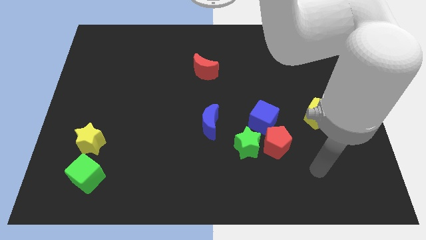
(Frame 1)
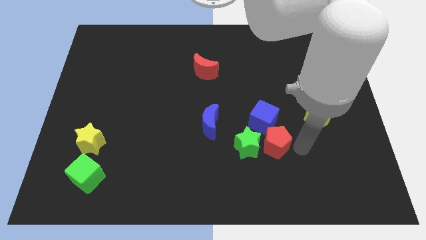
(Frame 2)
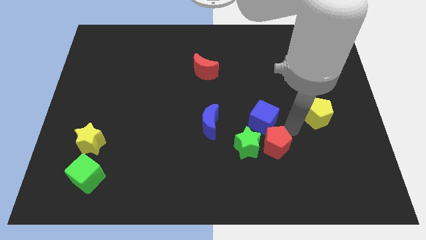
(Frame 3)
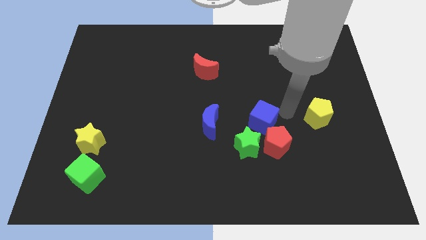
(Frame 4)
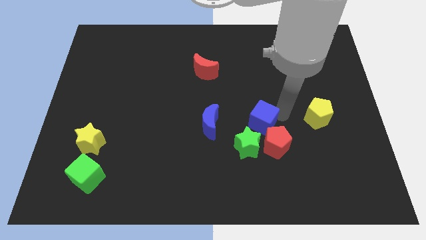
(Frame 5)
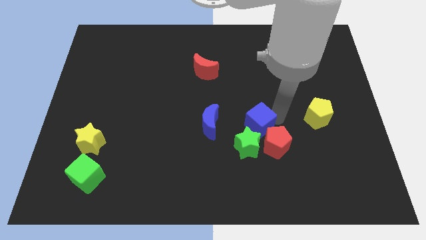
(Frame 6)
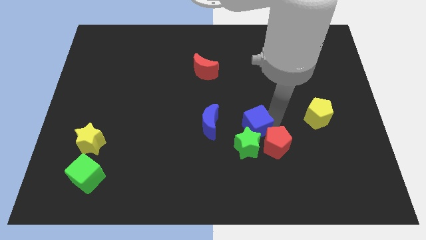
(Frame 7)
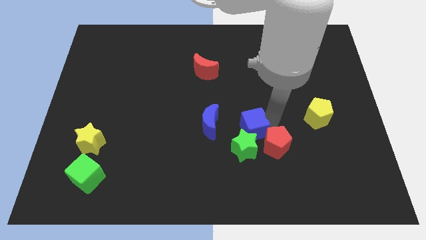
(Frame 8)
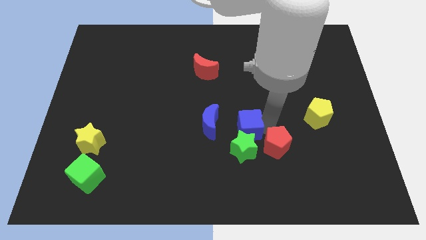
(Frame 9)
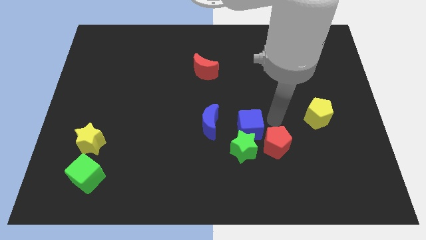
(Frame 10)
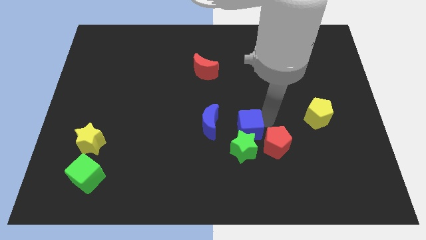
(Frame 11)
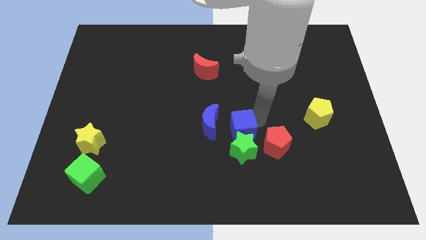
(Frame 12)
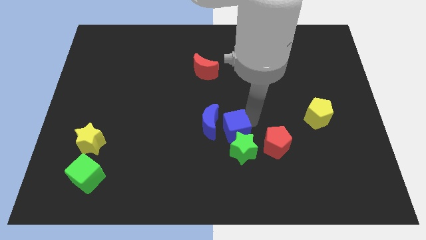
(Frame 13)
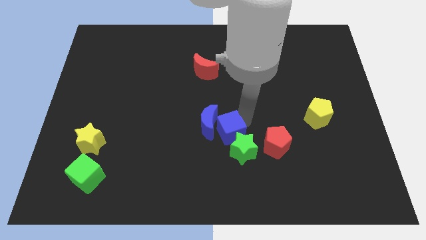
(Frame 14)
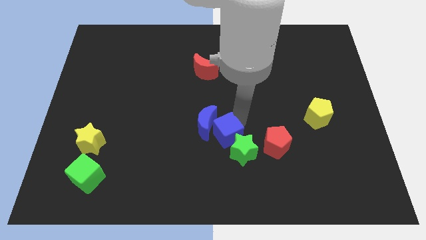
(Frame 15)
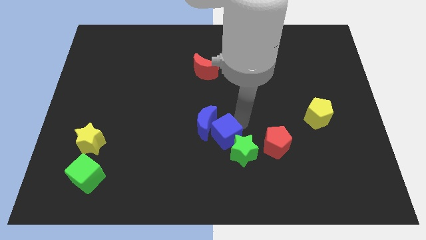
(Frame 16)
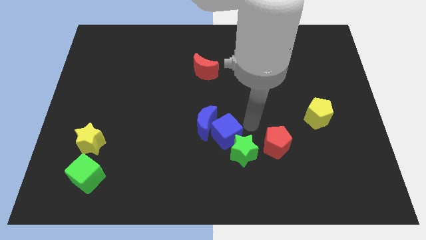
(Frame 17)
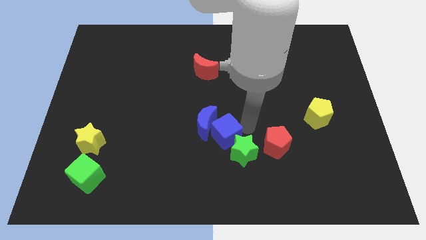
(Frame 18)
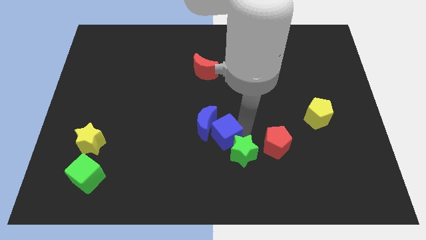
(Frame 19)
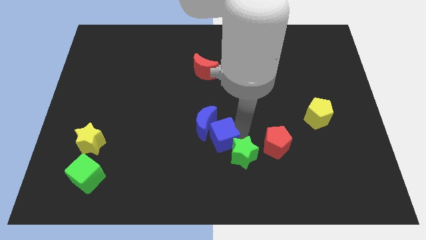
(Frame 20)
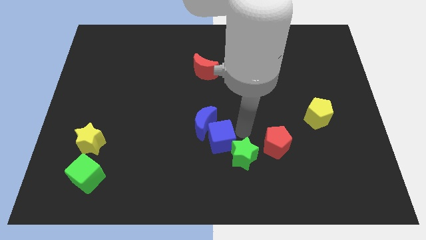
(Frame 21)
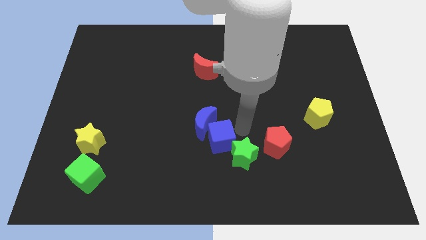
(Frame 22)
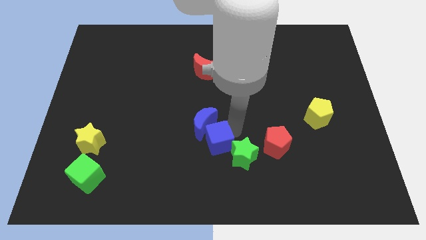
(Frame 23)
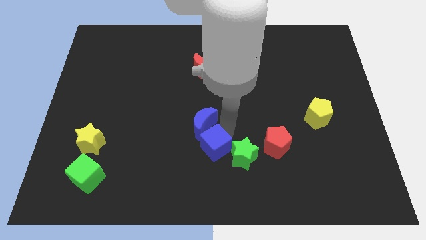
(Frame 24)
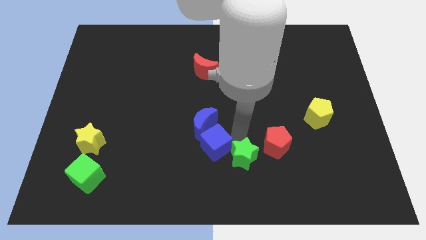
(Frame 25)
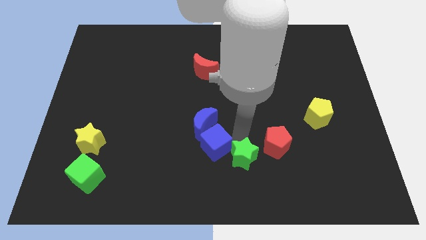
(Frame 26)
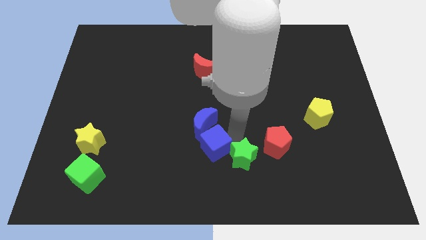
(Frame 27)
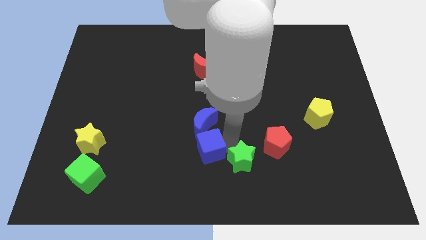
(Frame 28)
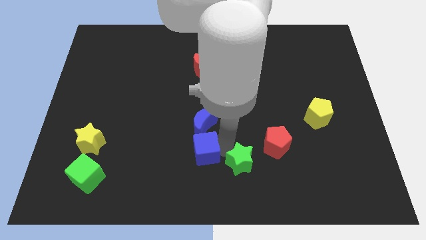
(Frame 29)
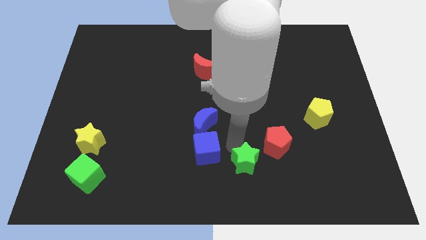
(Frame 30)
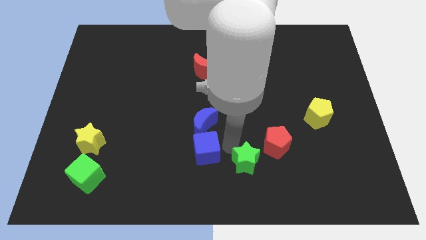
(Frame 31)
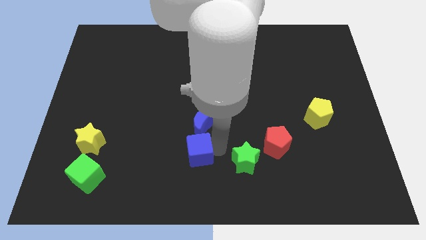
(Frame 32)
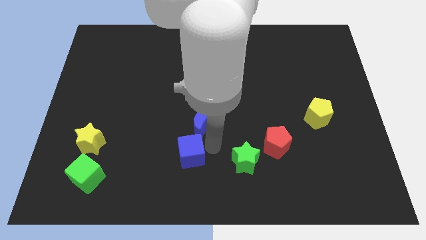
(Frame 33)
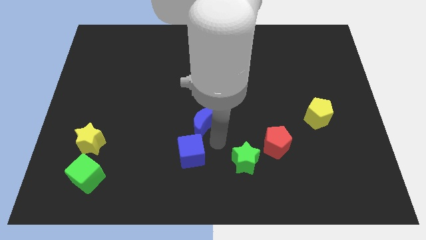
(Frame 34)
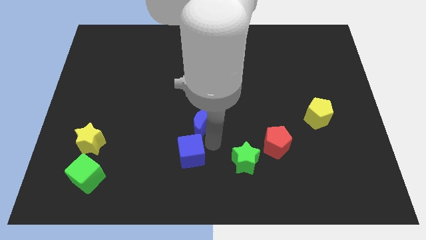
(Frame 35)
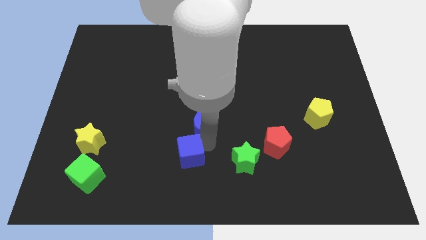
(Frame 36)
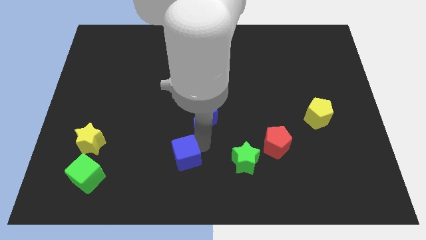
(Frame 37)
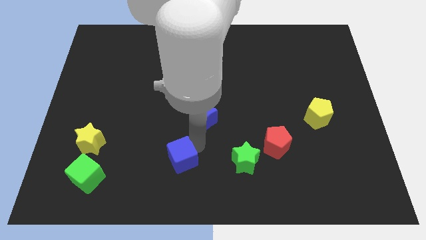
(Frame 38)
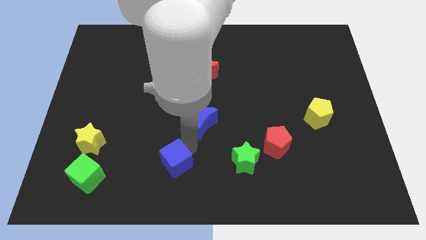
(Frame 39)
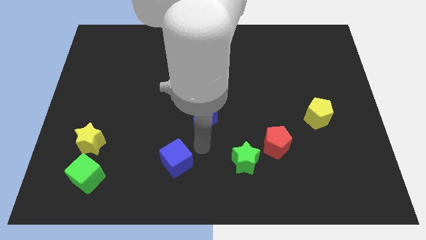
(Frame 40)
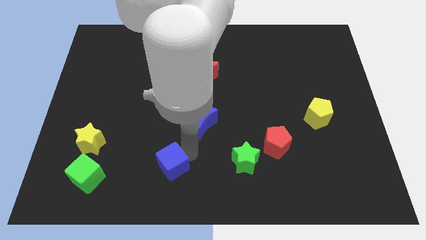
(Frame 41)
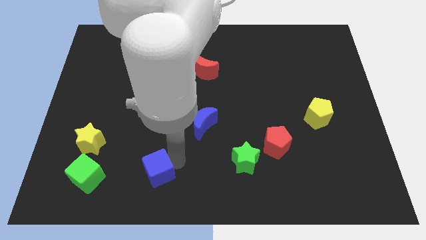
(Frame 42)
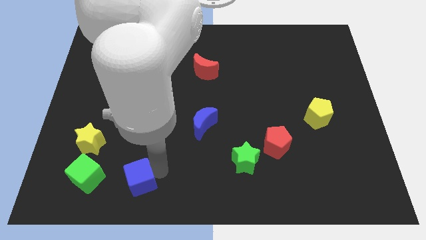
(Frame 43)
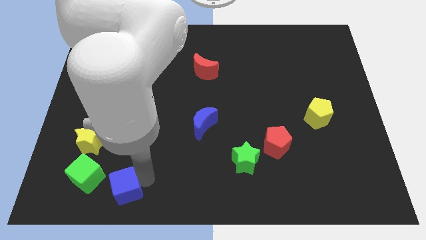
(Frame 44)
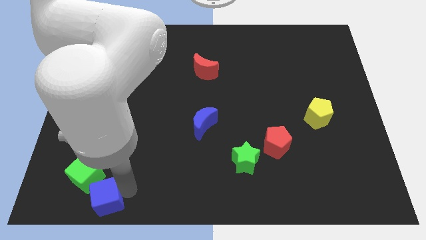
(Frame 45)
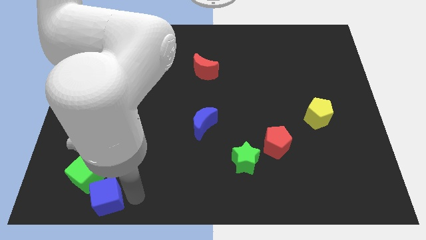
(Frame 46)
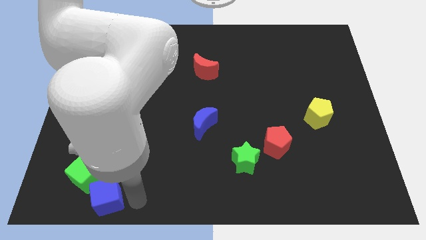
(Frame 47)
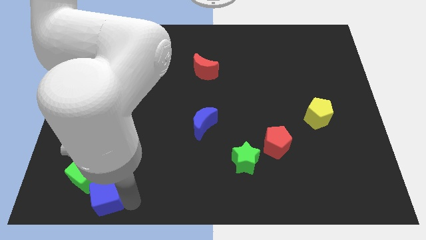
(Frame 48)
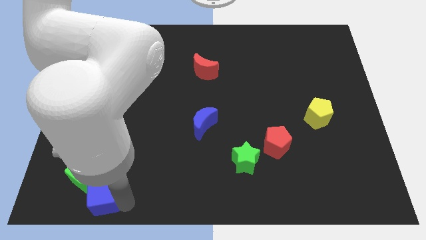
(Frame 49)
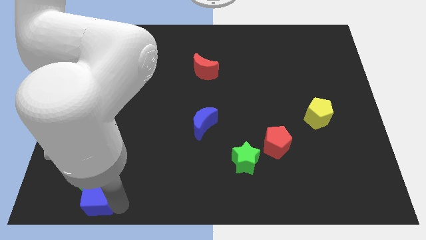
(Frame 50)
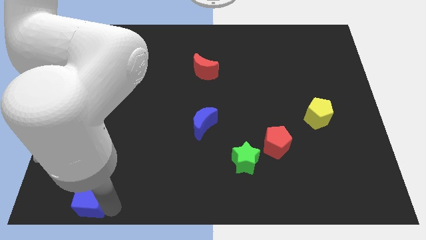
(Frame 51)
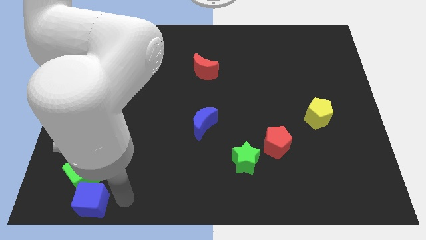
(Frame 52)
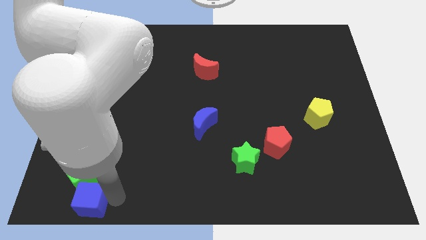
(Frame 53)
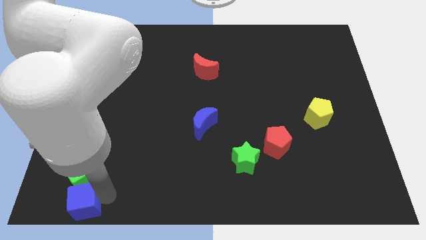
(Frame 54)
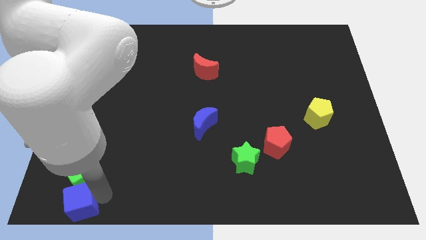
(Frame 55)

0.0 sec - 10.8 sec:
move the blue cube to the bottom left corner

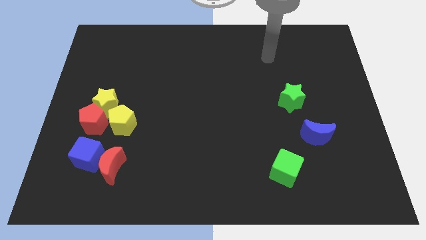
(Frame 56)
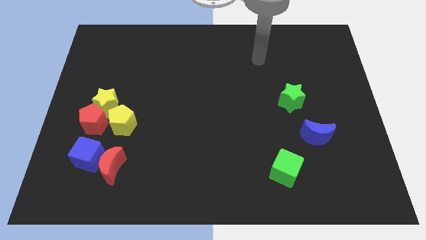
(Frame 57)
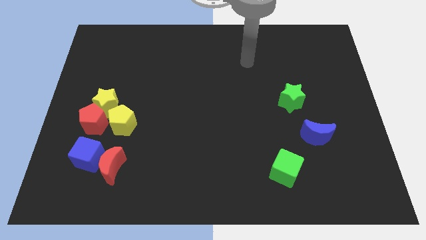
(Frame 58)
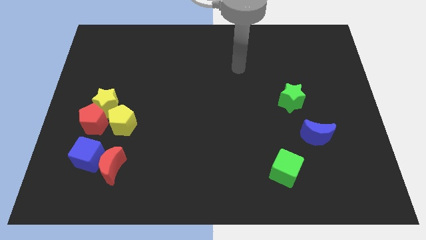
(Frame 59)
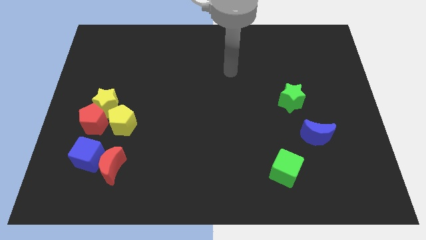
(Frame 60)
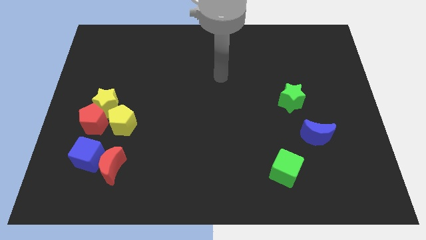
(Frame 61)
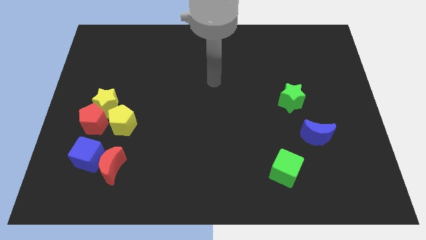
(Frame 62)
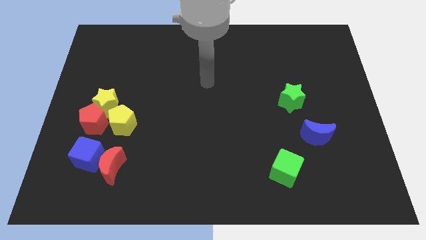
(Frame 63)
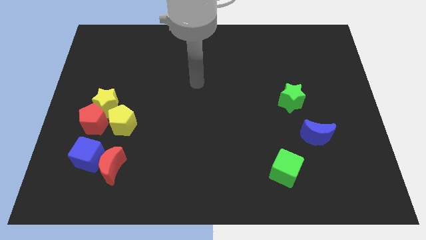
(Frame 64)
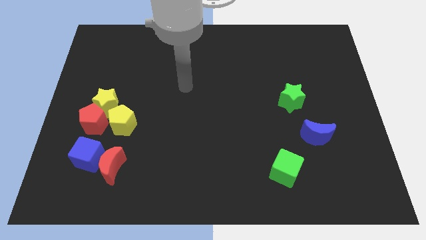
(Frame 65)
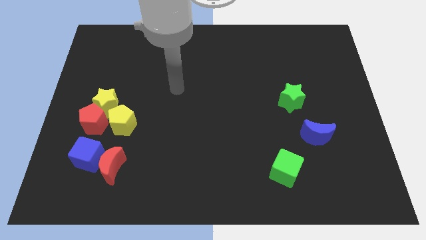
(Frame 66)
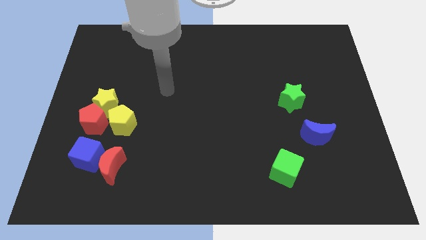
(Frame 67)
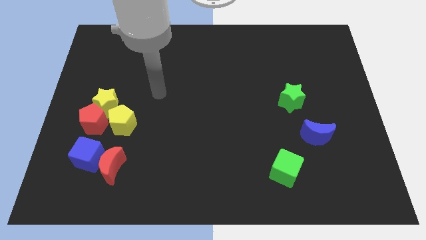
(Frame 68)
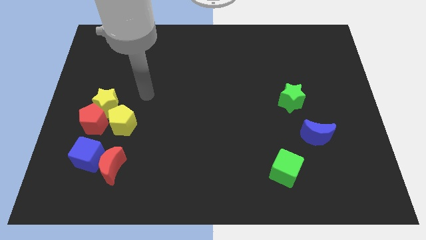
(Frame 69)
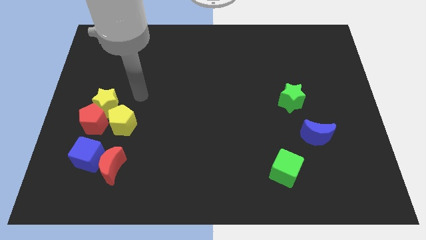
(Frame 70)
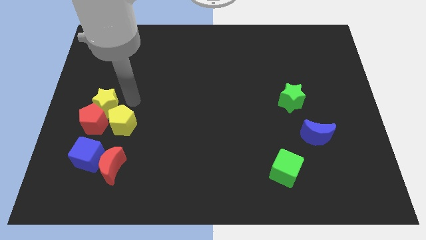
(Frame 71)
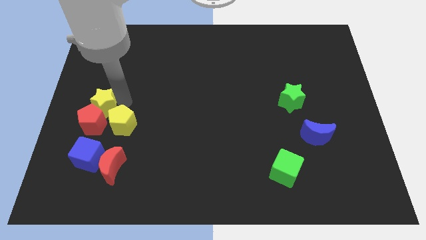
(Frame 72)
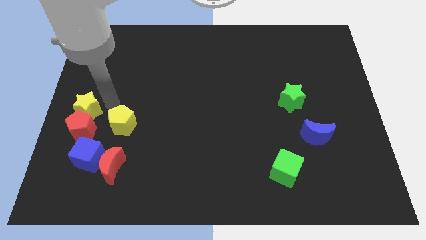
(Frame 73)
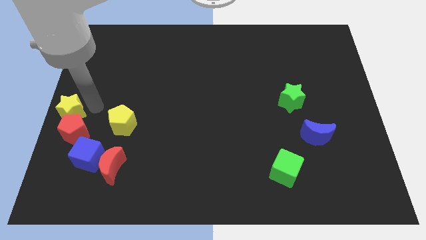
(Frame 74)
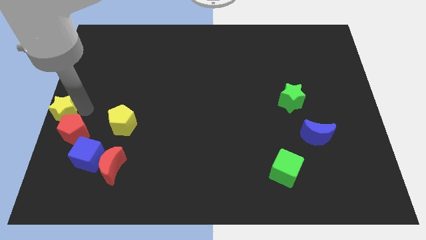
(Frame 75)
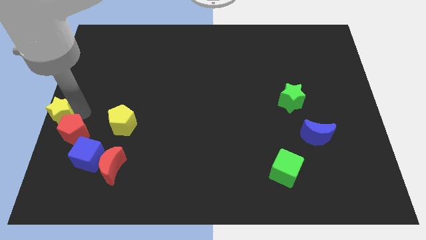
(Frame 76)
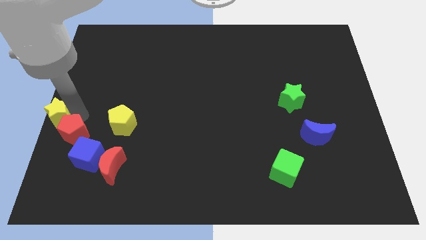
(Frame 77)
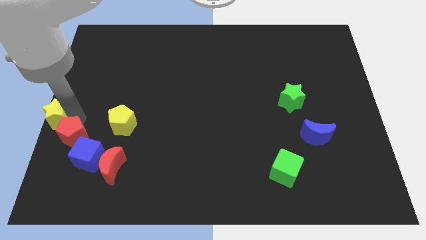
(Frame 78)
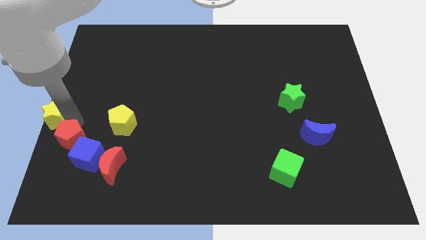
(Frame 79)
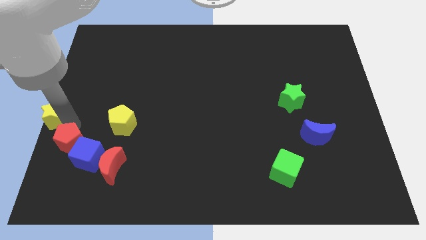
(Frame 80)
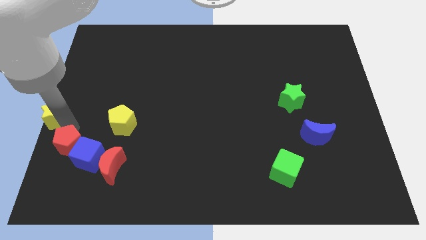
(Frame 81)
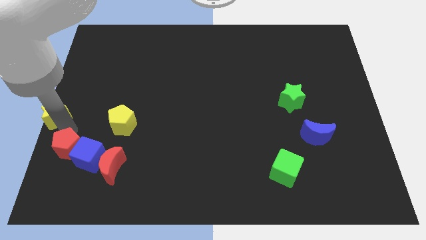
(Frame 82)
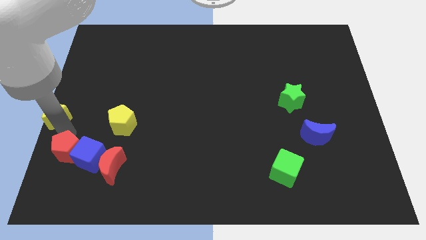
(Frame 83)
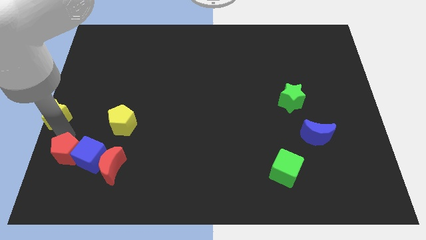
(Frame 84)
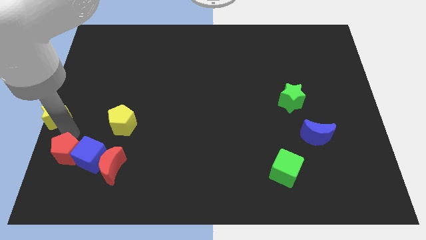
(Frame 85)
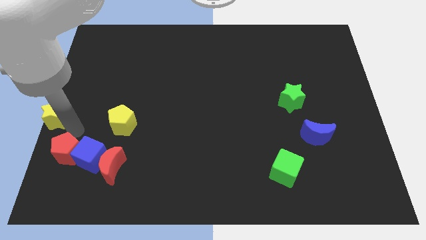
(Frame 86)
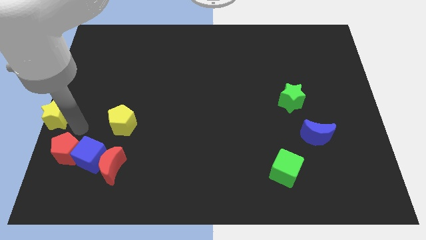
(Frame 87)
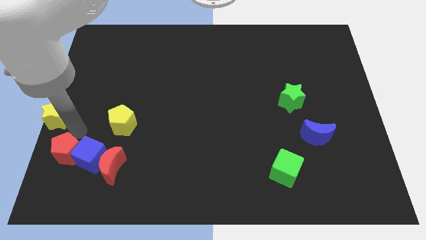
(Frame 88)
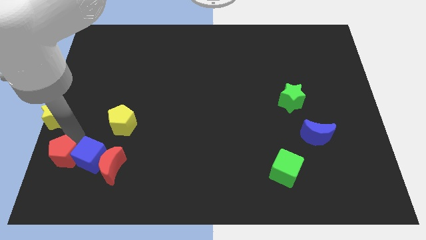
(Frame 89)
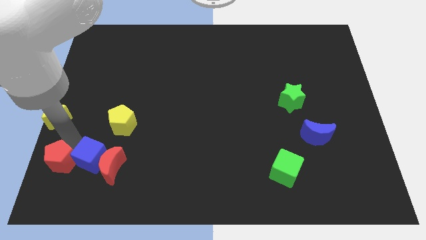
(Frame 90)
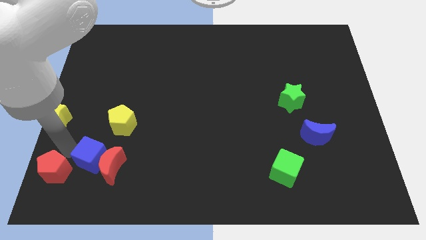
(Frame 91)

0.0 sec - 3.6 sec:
put the red pentagon to the bottom left
